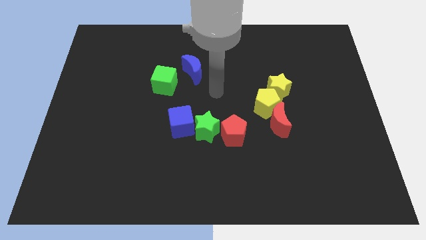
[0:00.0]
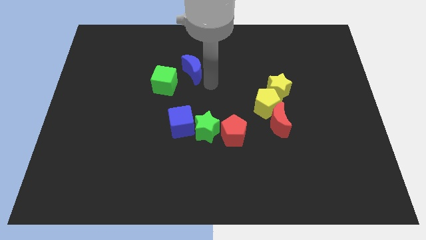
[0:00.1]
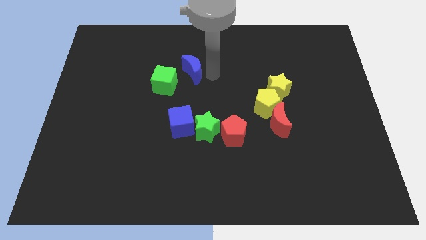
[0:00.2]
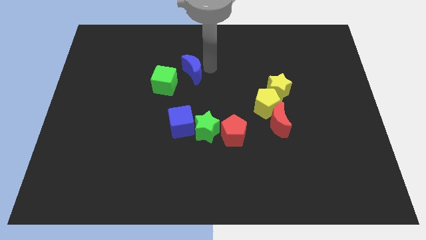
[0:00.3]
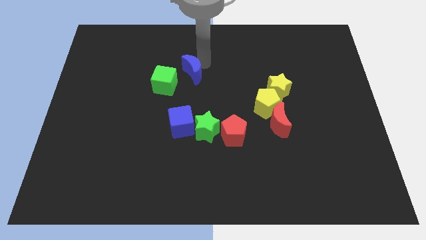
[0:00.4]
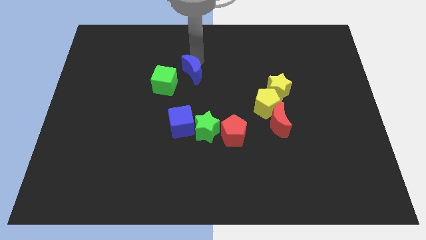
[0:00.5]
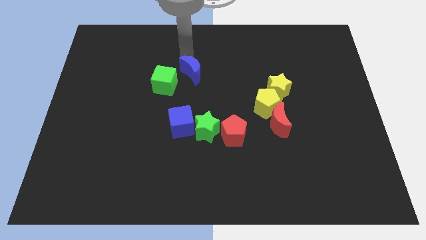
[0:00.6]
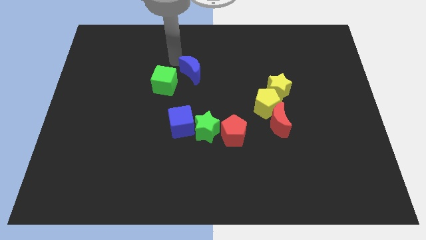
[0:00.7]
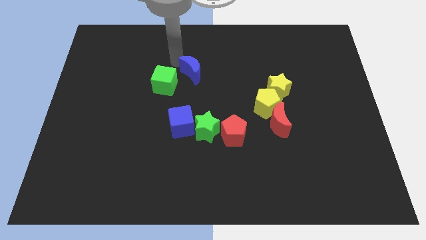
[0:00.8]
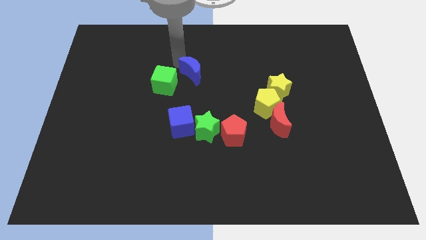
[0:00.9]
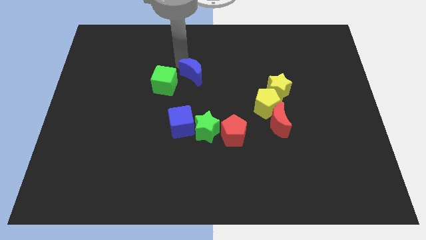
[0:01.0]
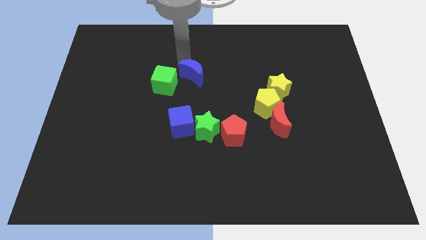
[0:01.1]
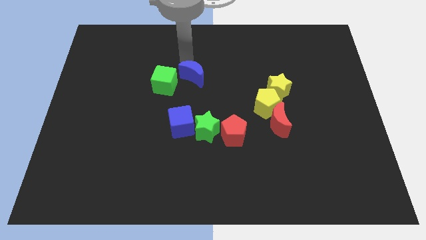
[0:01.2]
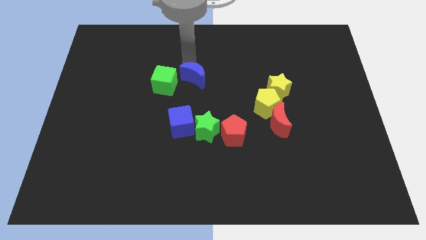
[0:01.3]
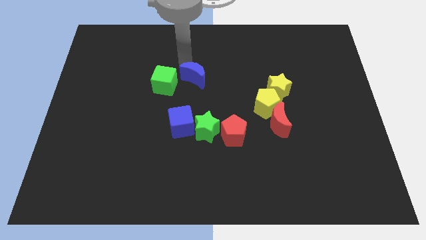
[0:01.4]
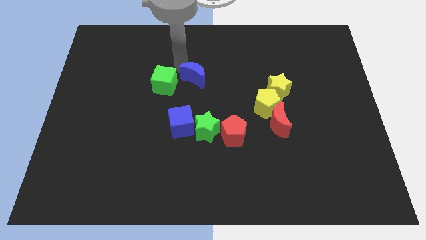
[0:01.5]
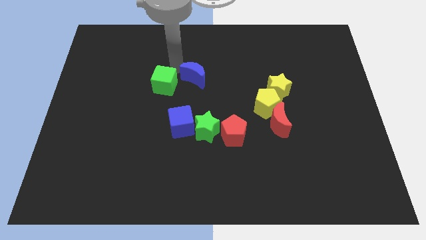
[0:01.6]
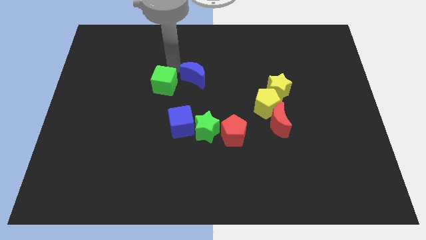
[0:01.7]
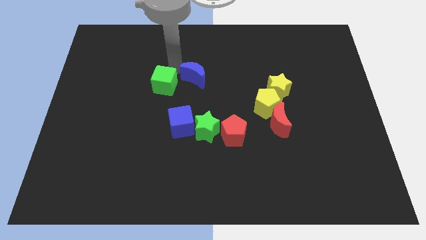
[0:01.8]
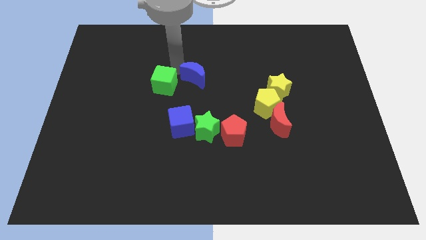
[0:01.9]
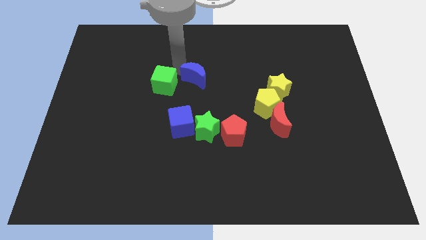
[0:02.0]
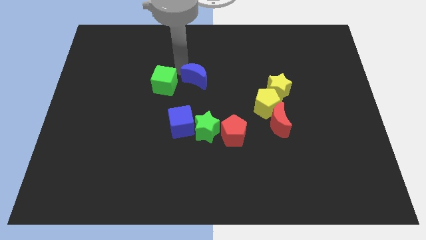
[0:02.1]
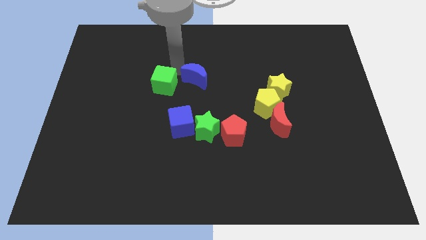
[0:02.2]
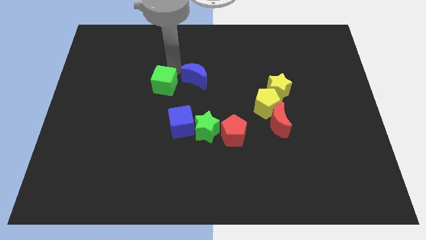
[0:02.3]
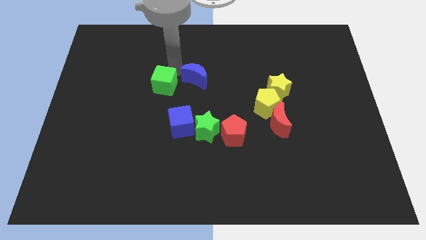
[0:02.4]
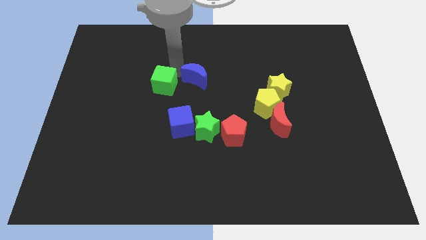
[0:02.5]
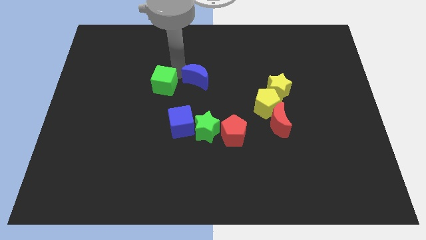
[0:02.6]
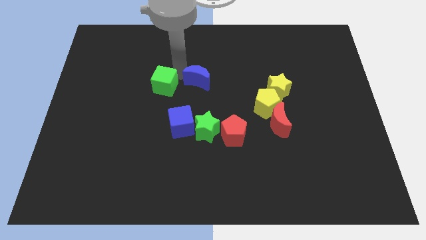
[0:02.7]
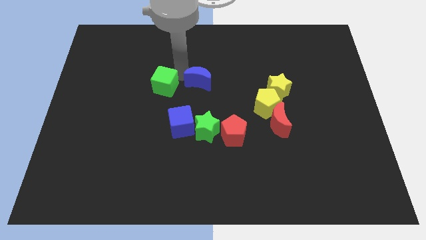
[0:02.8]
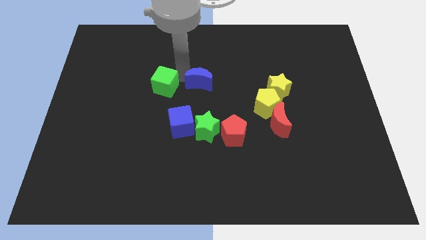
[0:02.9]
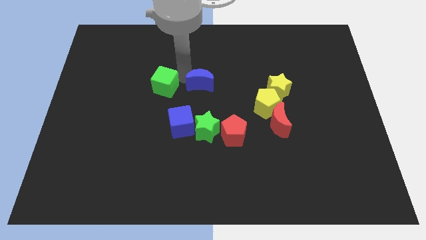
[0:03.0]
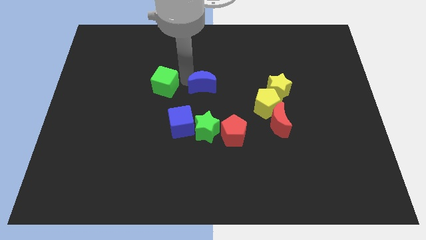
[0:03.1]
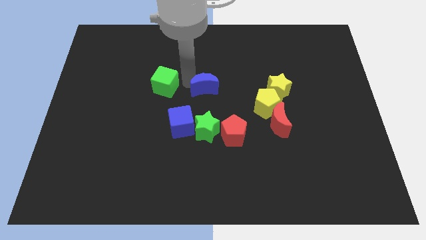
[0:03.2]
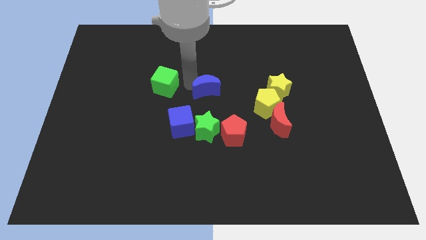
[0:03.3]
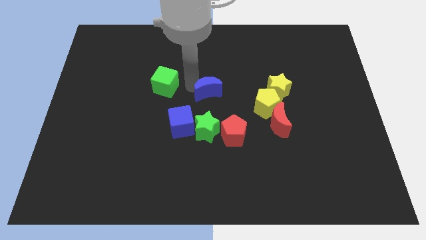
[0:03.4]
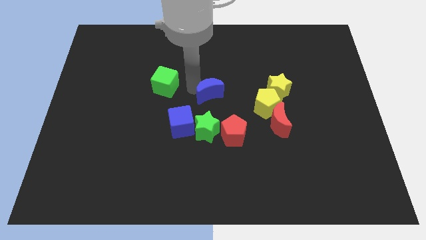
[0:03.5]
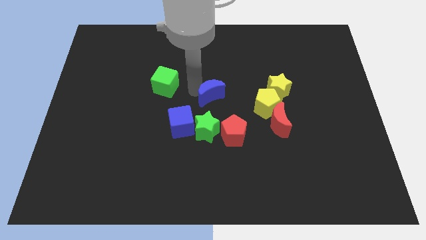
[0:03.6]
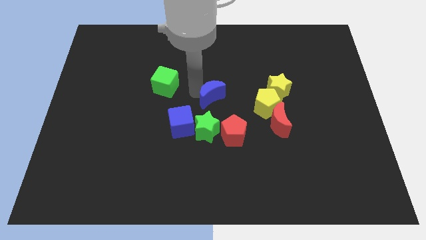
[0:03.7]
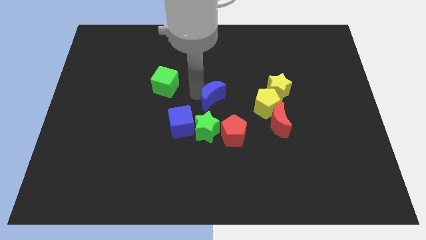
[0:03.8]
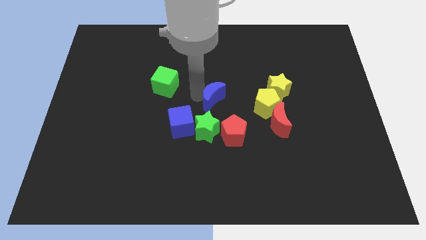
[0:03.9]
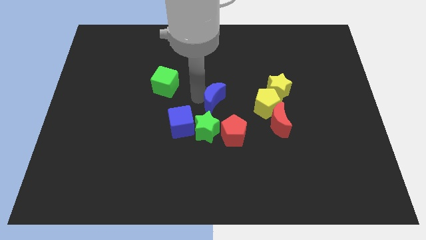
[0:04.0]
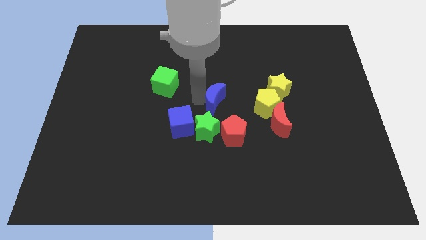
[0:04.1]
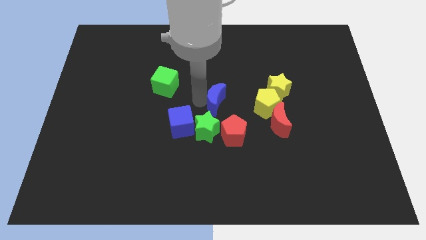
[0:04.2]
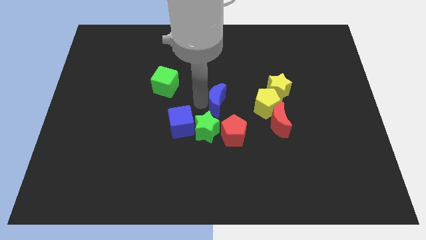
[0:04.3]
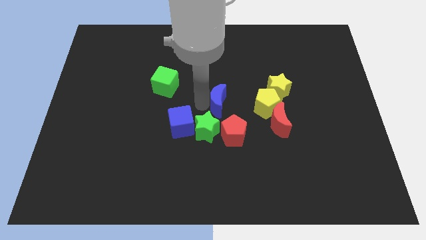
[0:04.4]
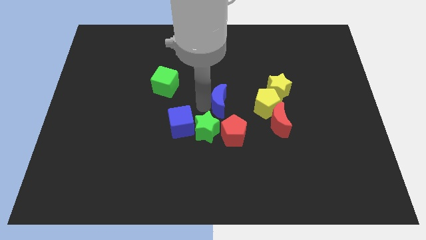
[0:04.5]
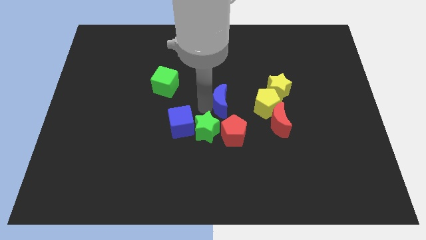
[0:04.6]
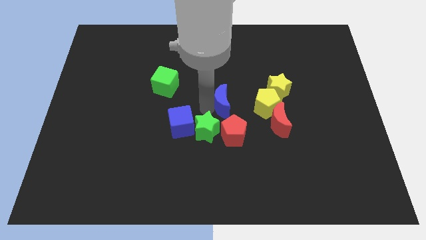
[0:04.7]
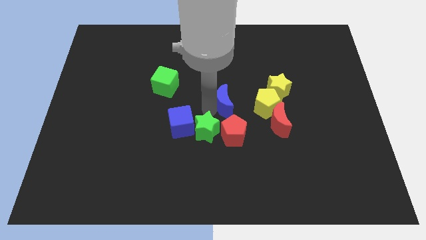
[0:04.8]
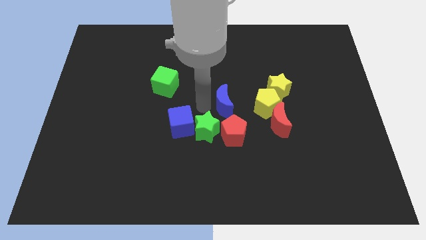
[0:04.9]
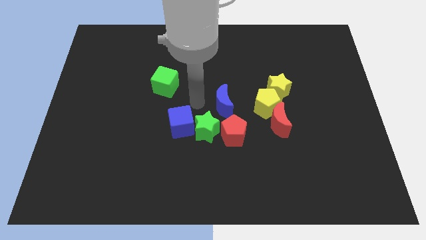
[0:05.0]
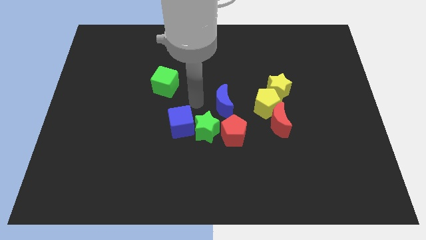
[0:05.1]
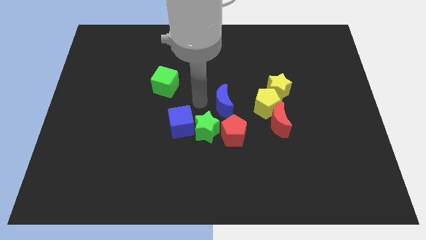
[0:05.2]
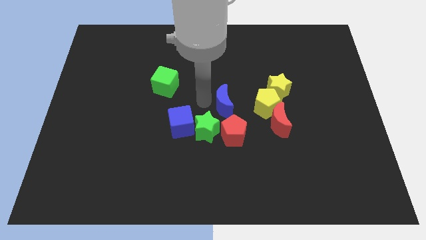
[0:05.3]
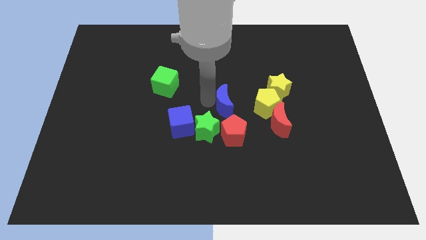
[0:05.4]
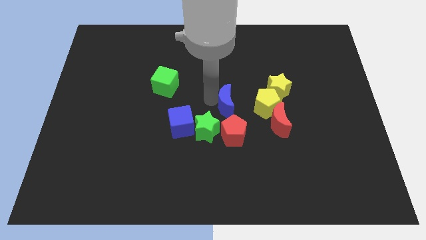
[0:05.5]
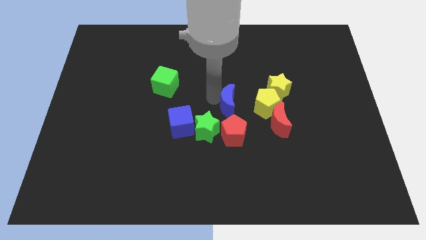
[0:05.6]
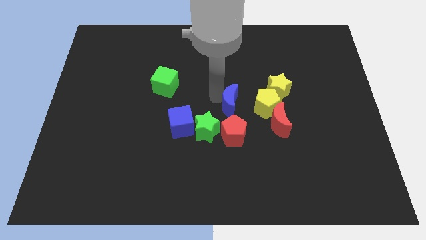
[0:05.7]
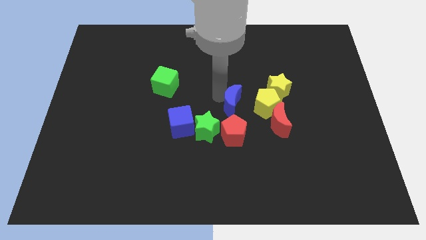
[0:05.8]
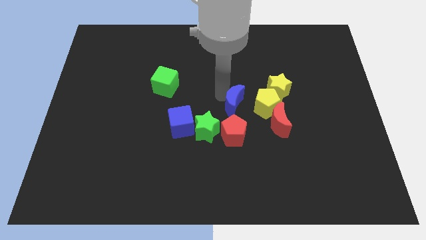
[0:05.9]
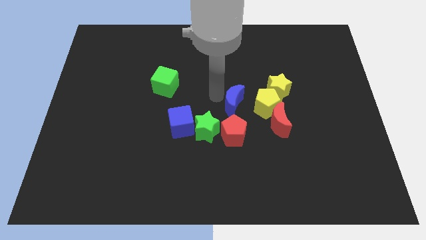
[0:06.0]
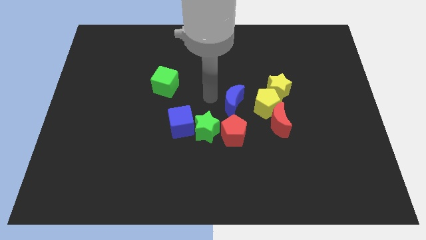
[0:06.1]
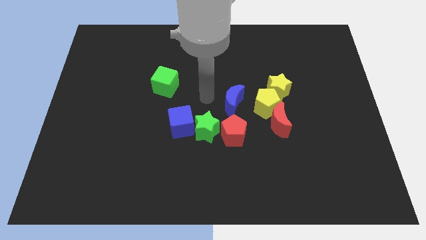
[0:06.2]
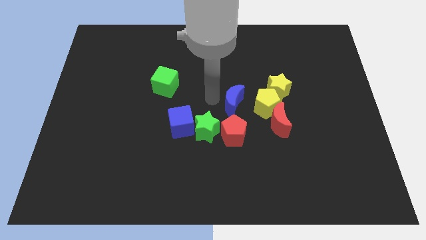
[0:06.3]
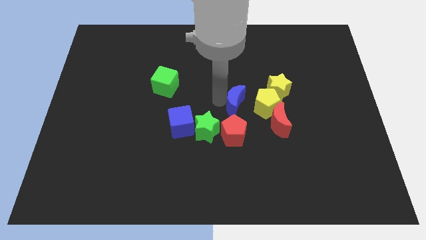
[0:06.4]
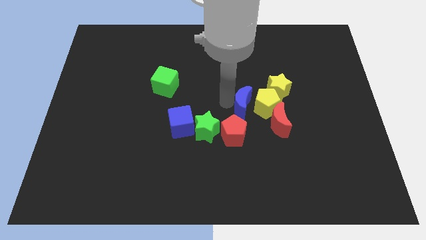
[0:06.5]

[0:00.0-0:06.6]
move the blue moon to the bottom left side of the yellow star

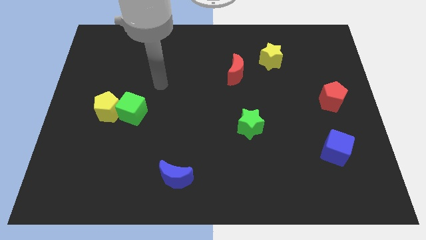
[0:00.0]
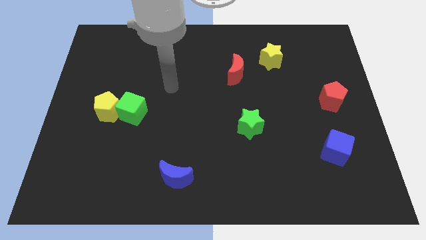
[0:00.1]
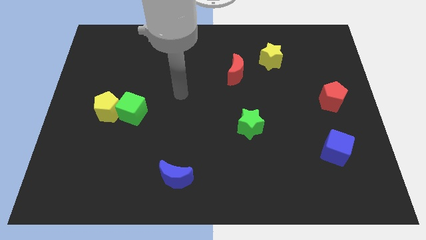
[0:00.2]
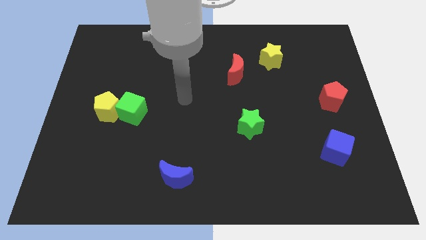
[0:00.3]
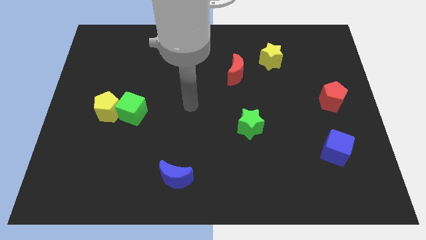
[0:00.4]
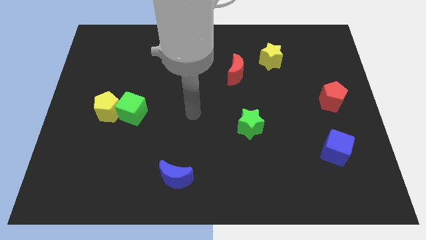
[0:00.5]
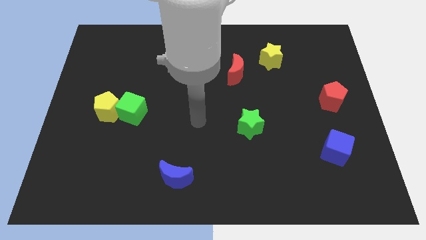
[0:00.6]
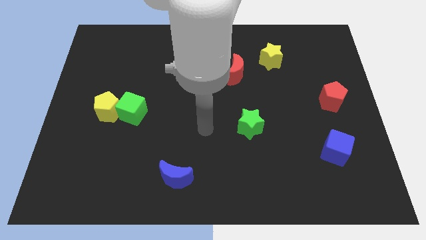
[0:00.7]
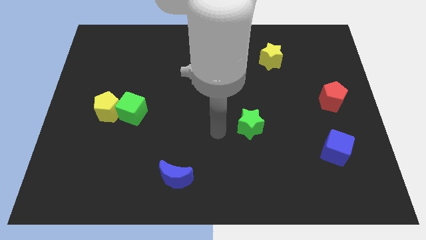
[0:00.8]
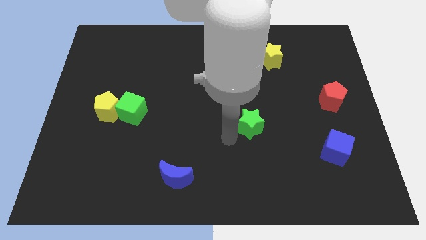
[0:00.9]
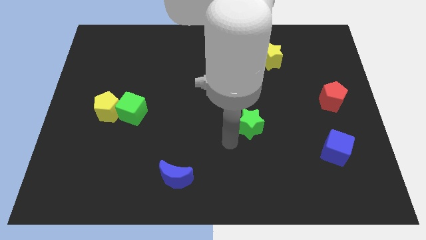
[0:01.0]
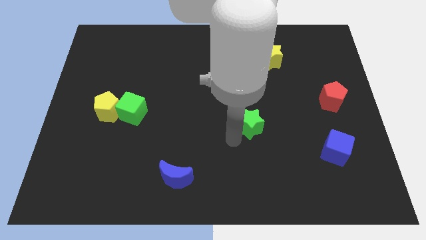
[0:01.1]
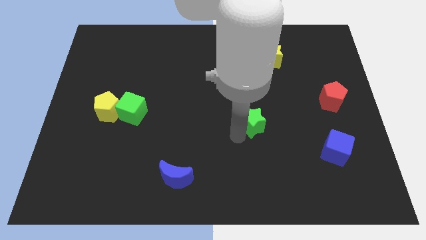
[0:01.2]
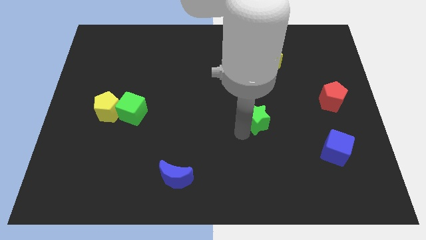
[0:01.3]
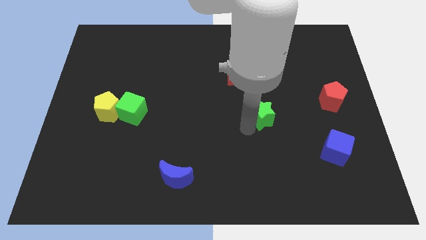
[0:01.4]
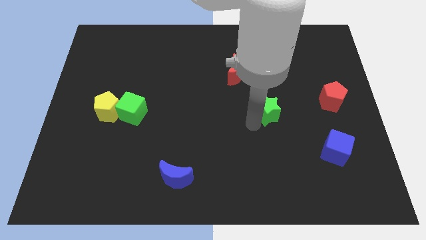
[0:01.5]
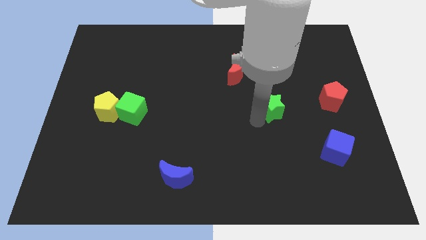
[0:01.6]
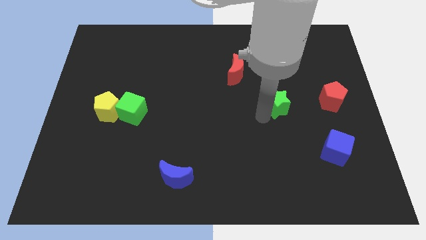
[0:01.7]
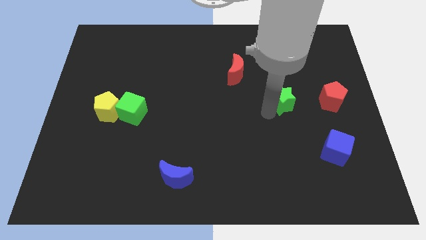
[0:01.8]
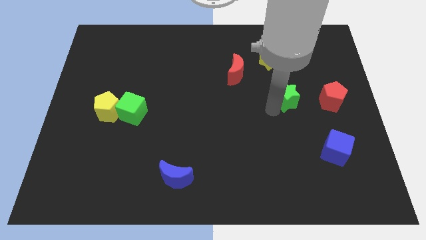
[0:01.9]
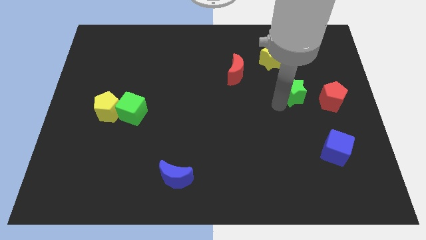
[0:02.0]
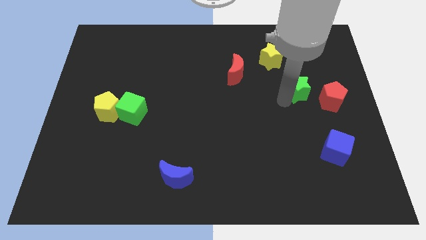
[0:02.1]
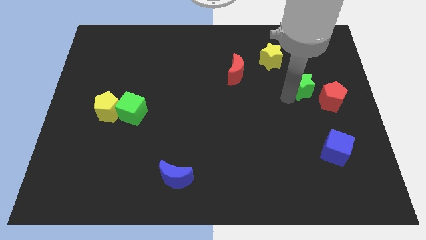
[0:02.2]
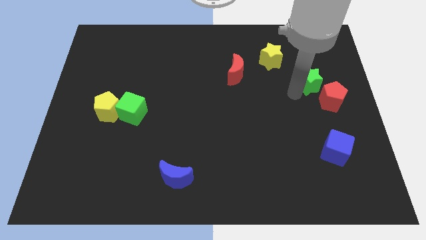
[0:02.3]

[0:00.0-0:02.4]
push the green star above the red pentagon
